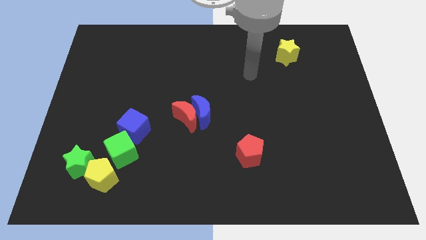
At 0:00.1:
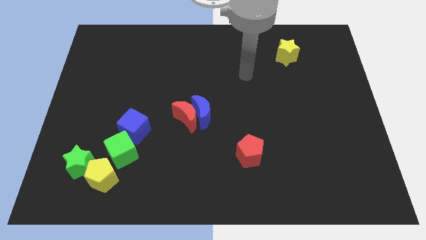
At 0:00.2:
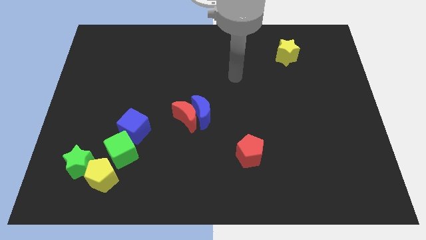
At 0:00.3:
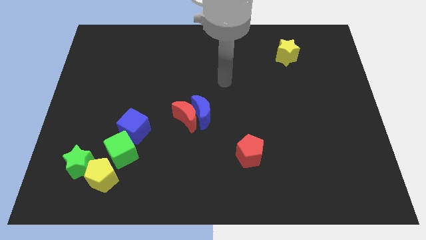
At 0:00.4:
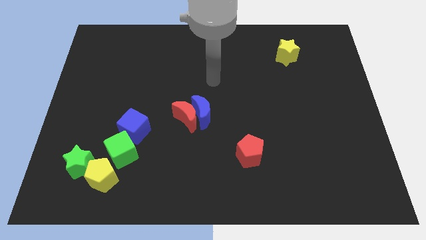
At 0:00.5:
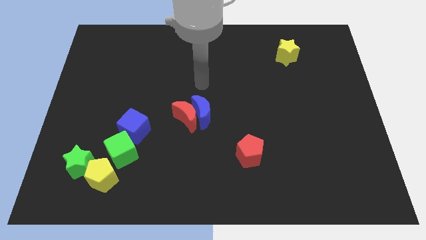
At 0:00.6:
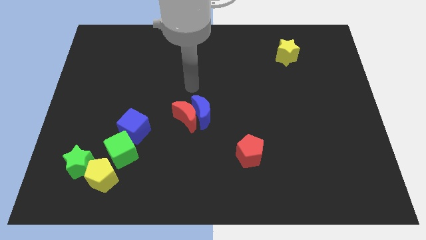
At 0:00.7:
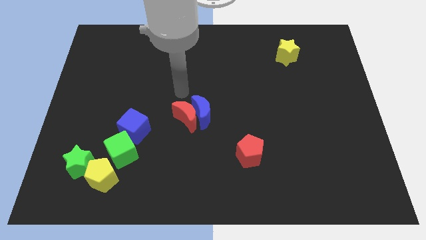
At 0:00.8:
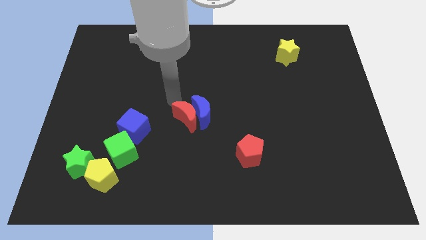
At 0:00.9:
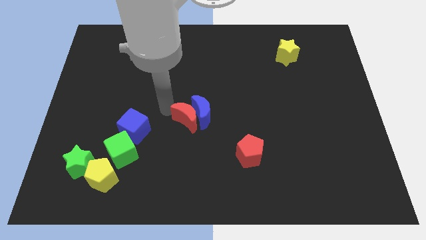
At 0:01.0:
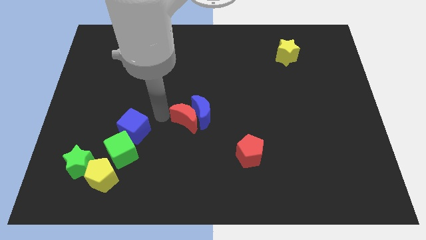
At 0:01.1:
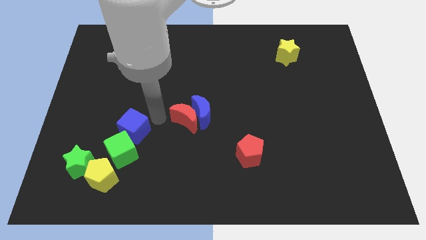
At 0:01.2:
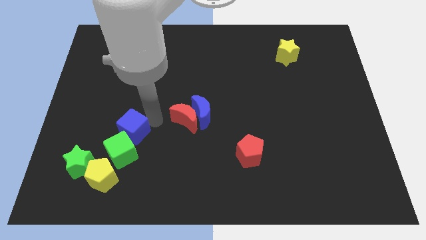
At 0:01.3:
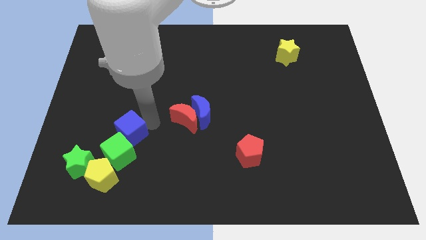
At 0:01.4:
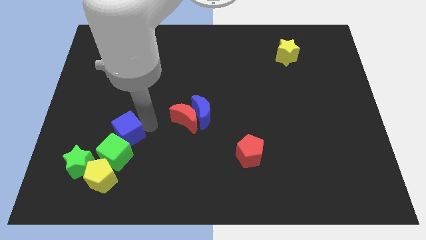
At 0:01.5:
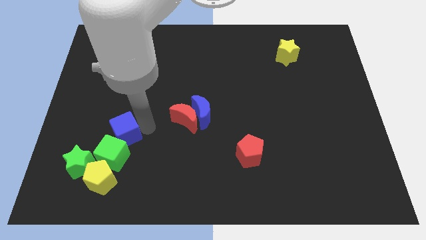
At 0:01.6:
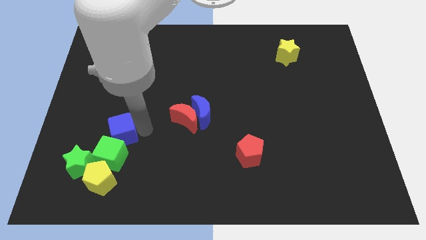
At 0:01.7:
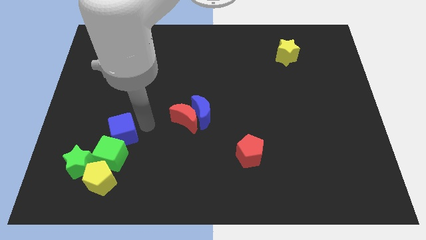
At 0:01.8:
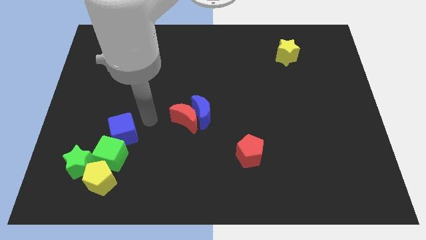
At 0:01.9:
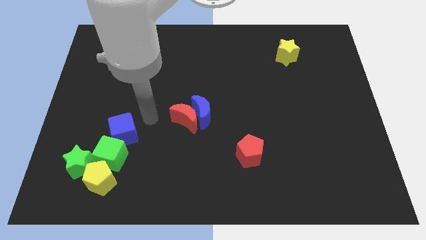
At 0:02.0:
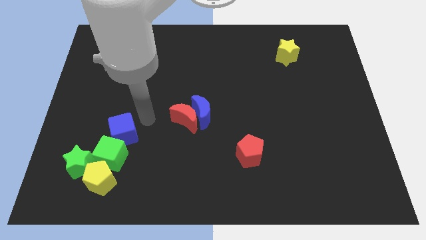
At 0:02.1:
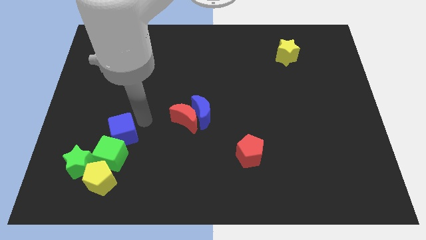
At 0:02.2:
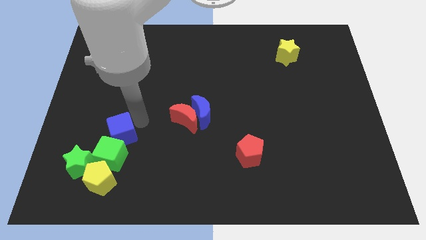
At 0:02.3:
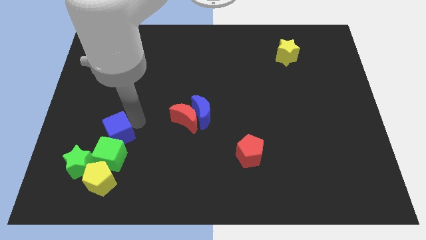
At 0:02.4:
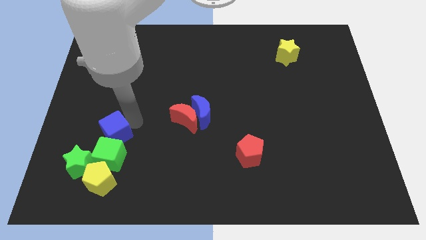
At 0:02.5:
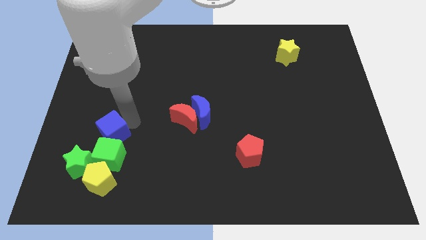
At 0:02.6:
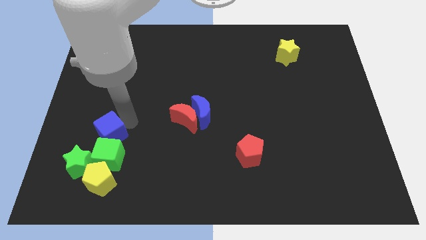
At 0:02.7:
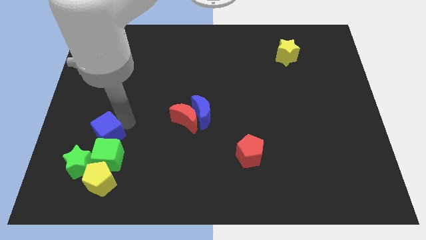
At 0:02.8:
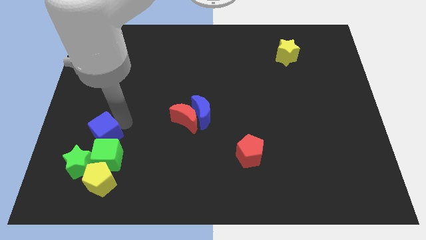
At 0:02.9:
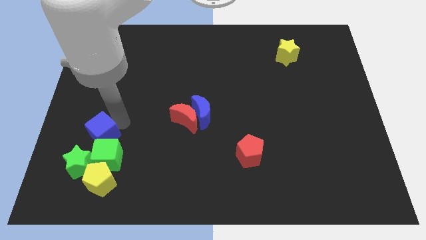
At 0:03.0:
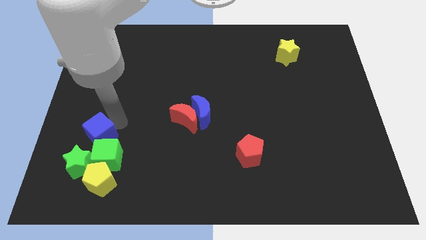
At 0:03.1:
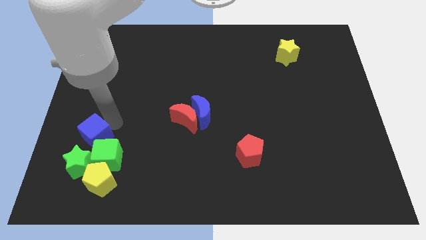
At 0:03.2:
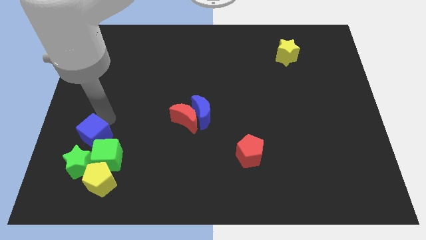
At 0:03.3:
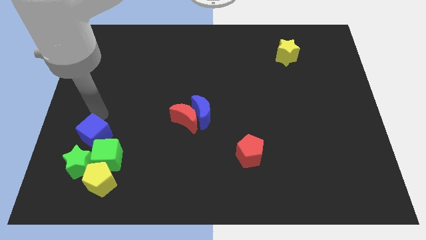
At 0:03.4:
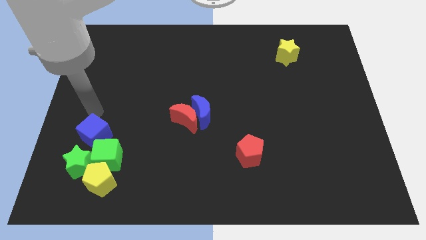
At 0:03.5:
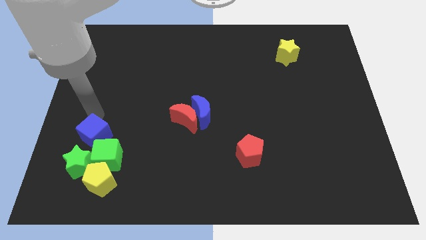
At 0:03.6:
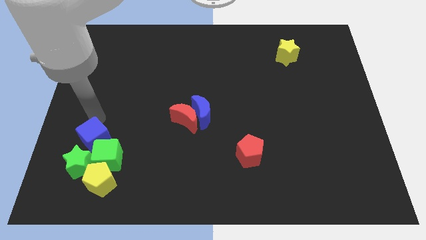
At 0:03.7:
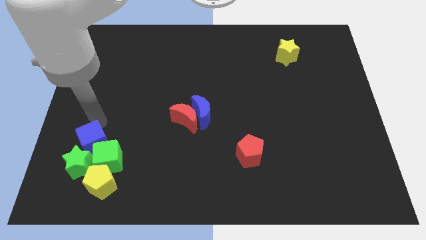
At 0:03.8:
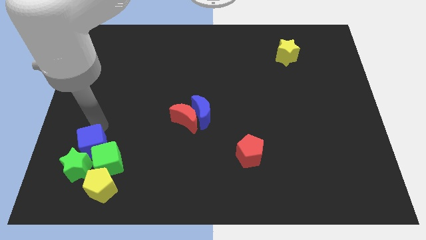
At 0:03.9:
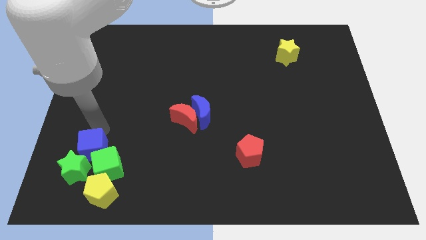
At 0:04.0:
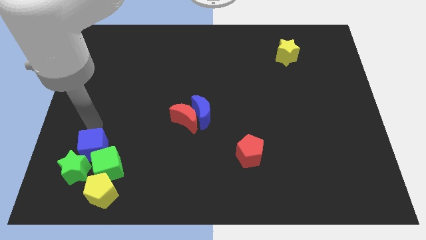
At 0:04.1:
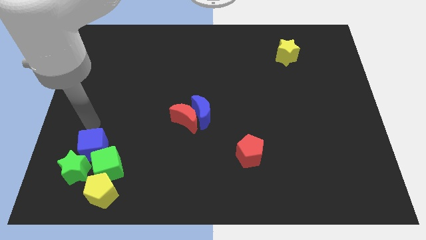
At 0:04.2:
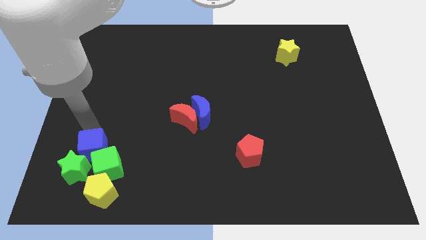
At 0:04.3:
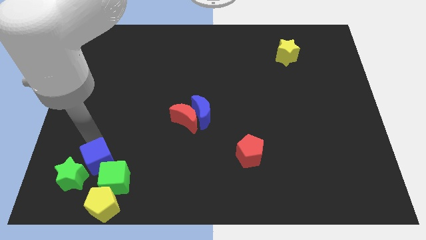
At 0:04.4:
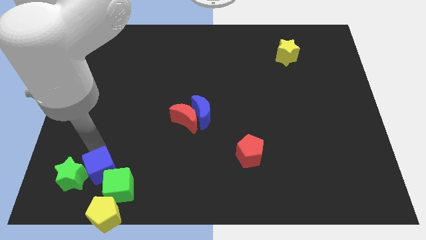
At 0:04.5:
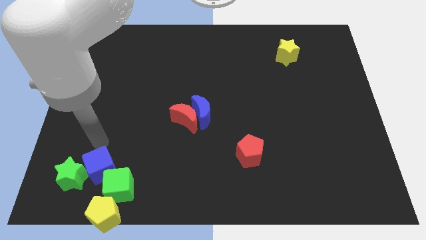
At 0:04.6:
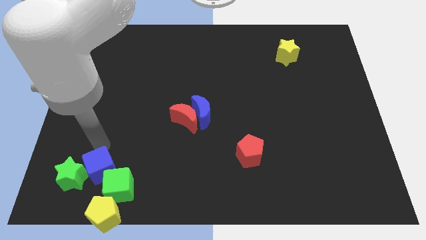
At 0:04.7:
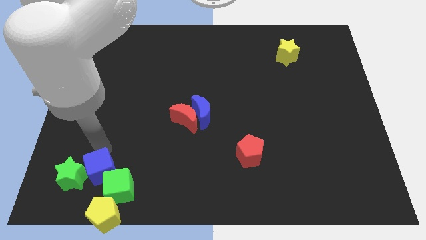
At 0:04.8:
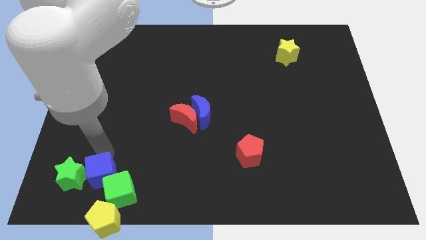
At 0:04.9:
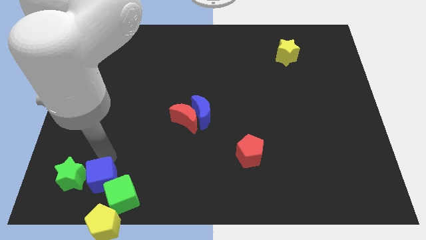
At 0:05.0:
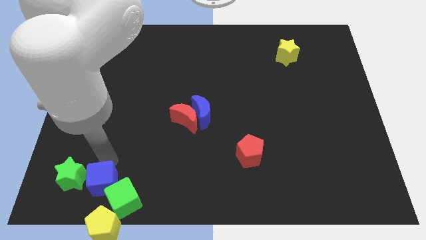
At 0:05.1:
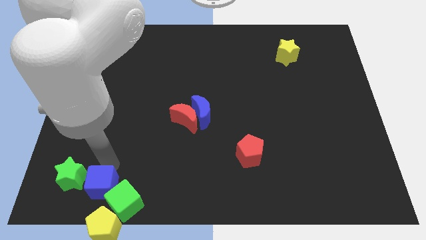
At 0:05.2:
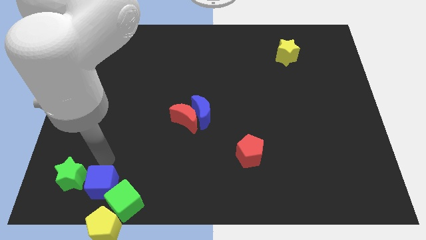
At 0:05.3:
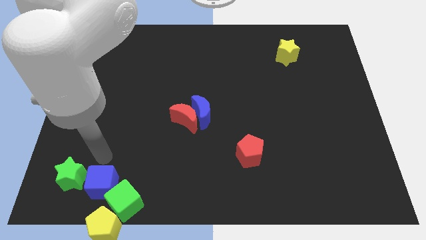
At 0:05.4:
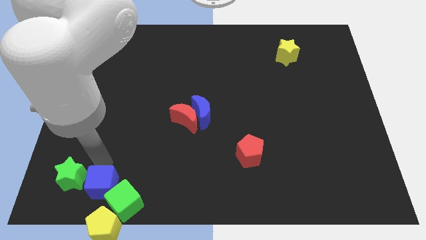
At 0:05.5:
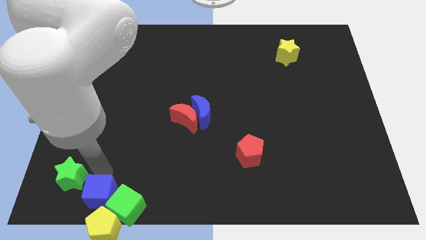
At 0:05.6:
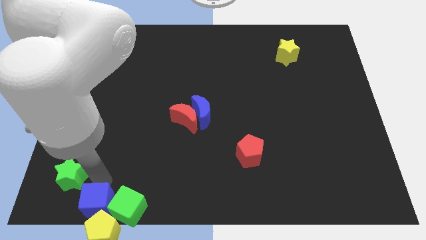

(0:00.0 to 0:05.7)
move the blue cube towards the yellow pentagon

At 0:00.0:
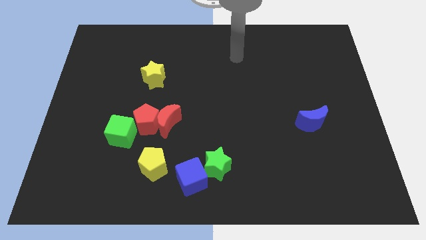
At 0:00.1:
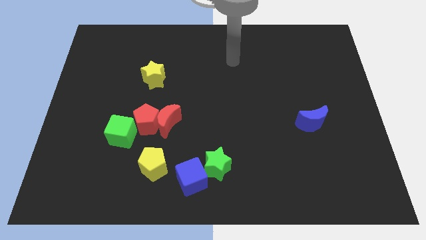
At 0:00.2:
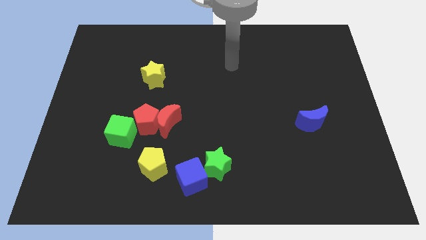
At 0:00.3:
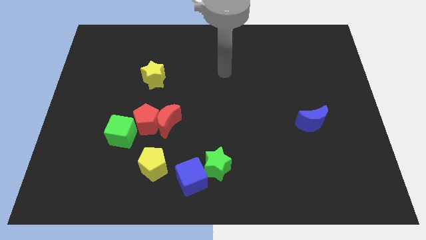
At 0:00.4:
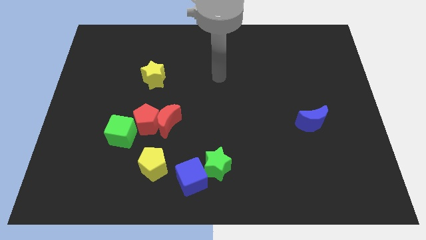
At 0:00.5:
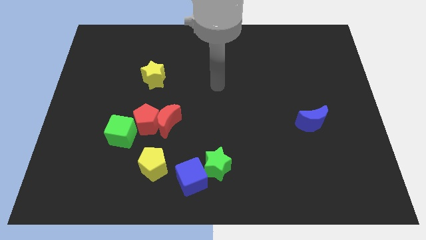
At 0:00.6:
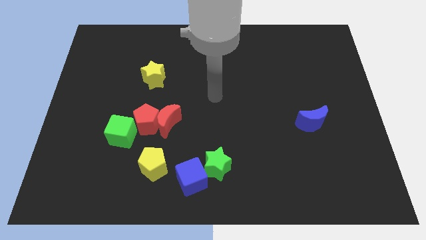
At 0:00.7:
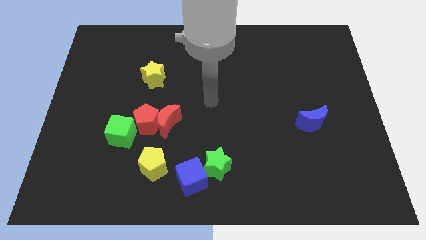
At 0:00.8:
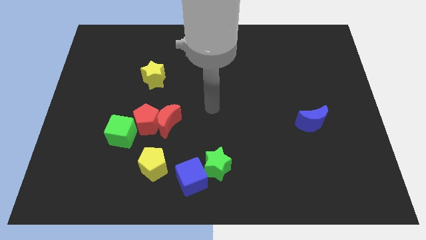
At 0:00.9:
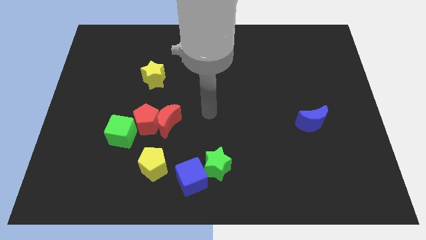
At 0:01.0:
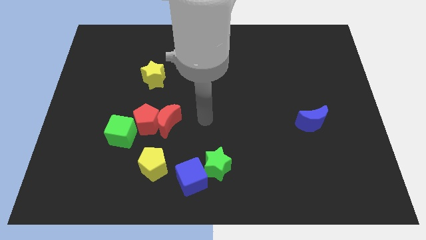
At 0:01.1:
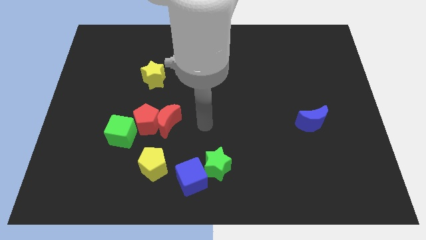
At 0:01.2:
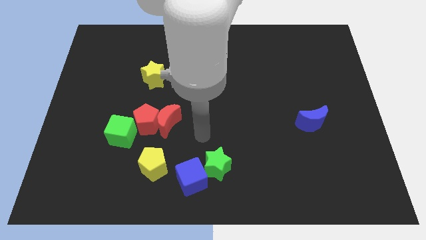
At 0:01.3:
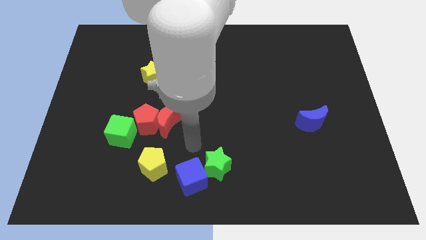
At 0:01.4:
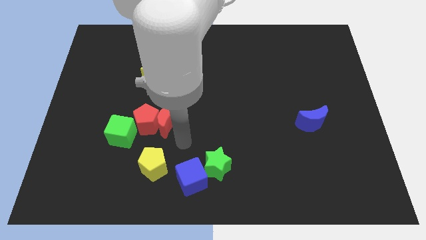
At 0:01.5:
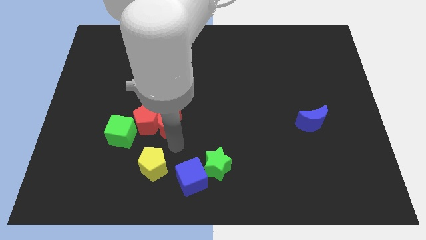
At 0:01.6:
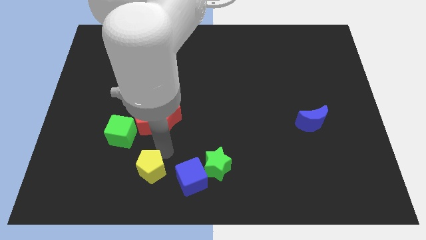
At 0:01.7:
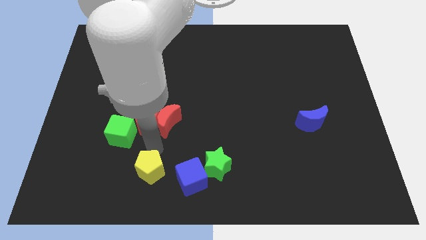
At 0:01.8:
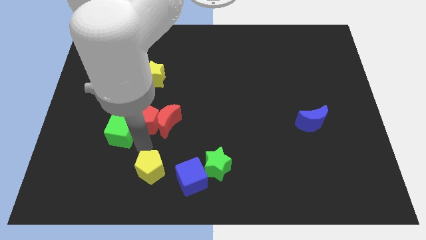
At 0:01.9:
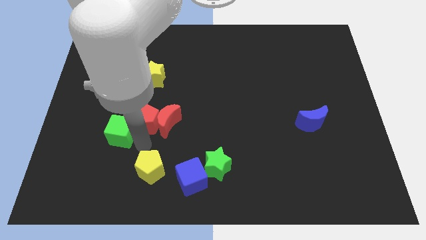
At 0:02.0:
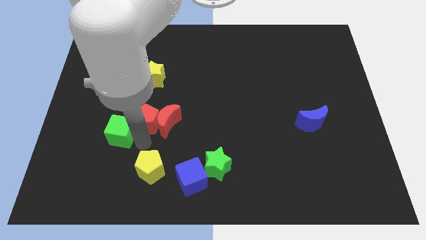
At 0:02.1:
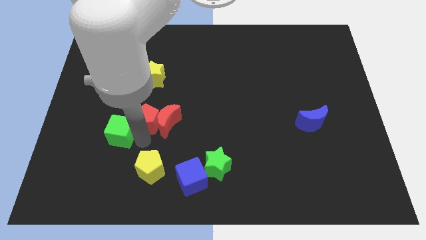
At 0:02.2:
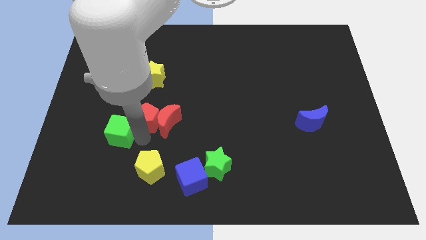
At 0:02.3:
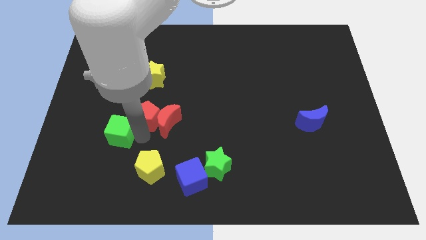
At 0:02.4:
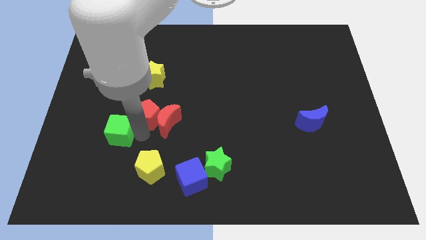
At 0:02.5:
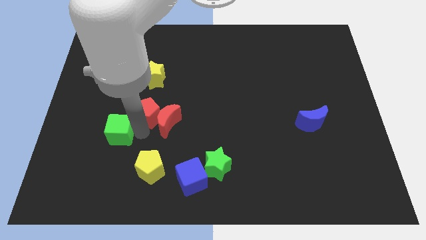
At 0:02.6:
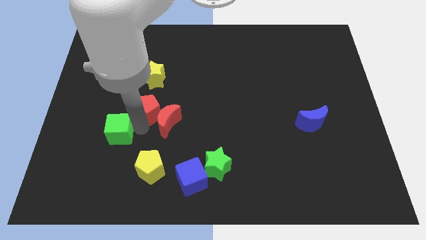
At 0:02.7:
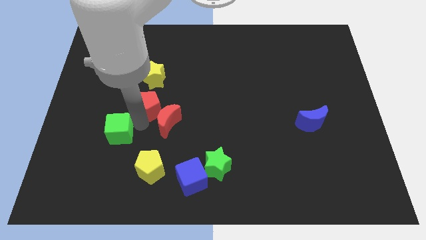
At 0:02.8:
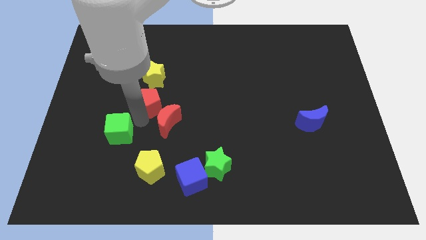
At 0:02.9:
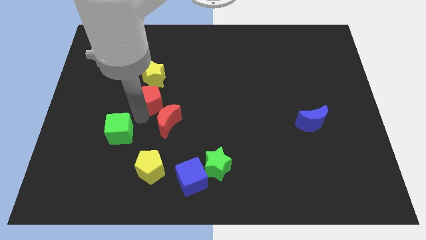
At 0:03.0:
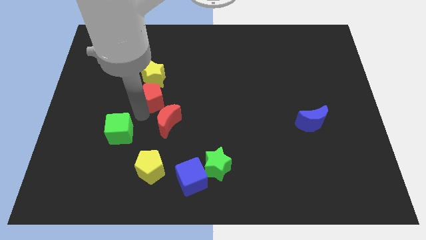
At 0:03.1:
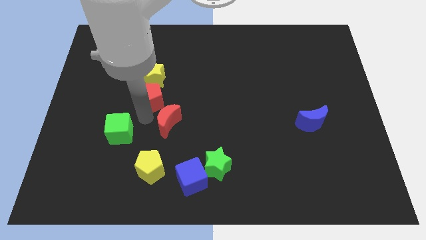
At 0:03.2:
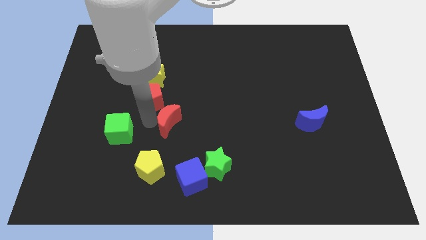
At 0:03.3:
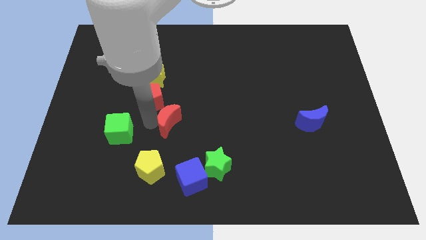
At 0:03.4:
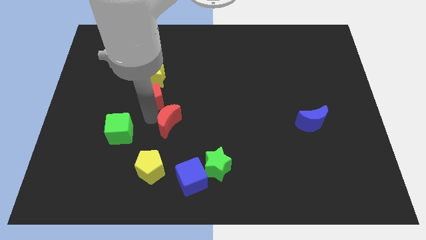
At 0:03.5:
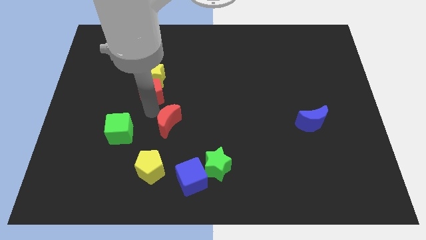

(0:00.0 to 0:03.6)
slide the red pentagon next to the yellow star
